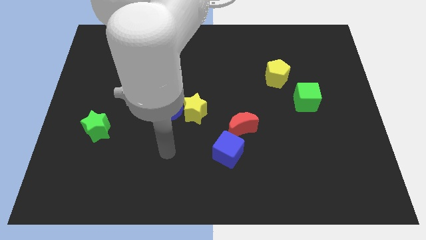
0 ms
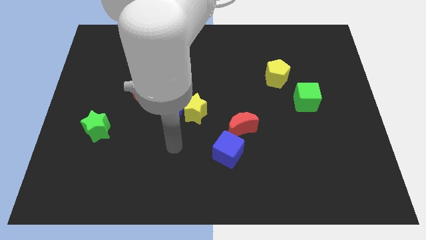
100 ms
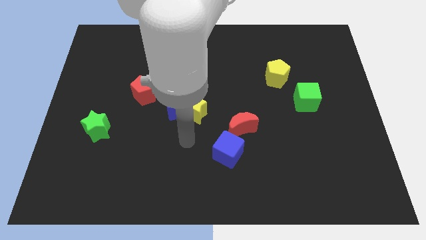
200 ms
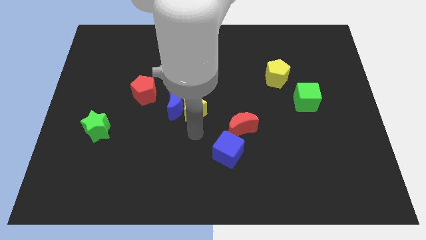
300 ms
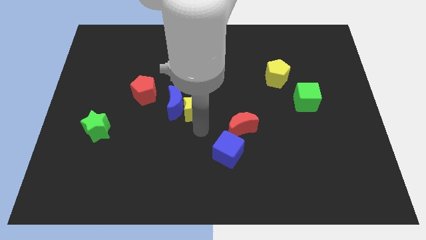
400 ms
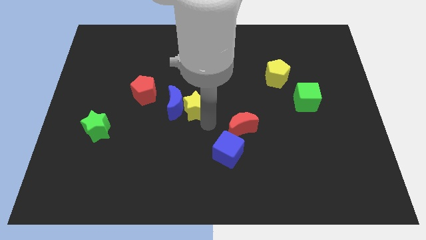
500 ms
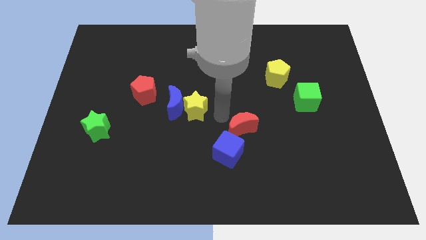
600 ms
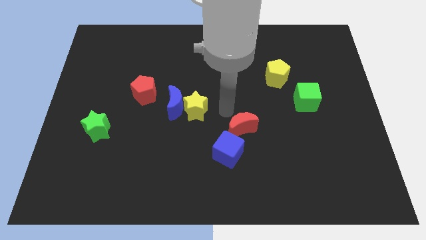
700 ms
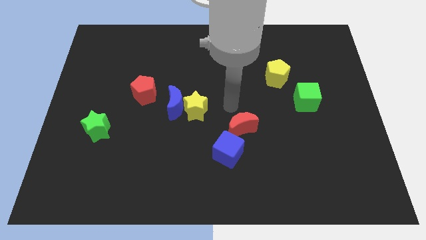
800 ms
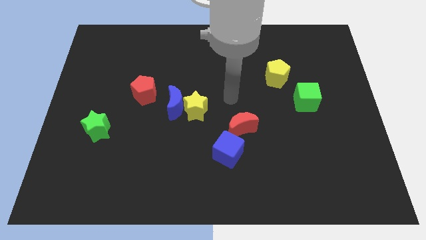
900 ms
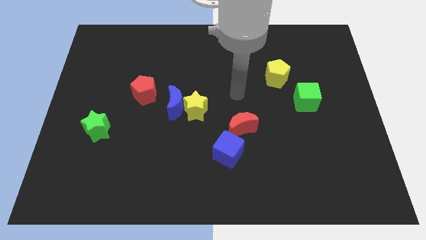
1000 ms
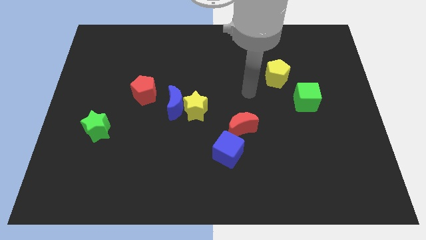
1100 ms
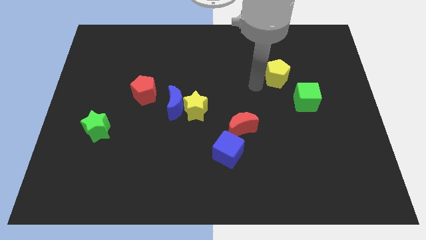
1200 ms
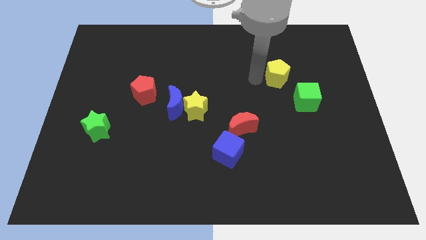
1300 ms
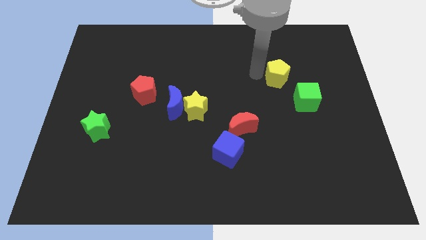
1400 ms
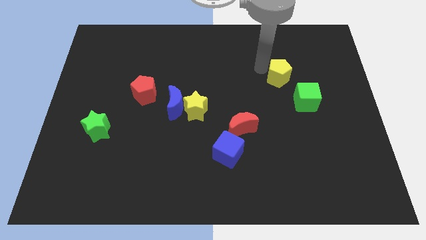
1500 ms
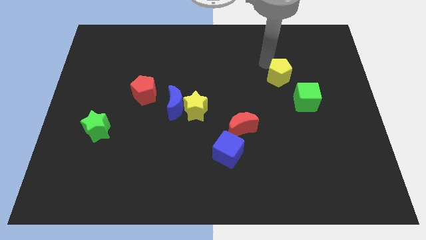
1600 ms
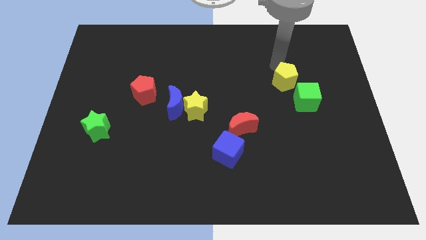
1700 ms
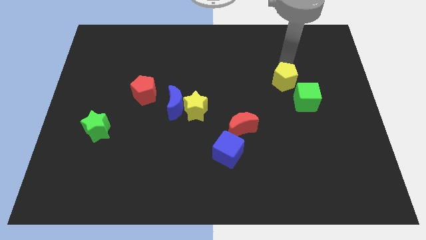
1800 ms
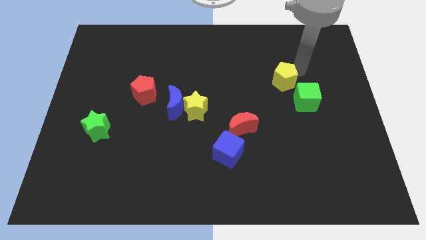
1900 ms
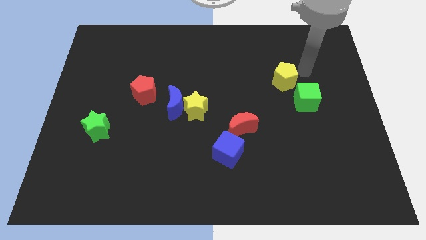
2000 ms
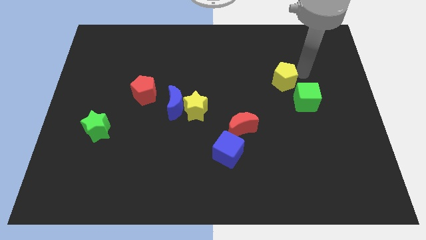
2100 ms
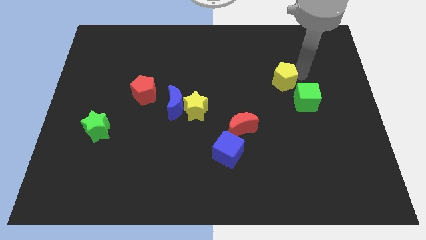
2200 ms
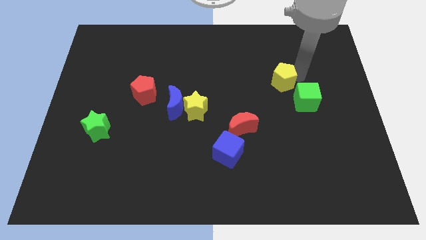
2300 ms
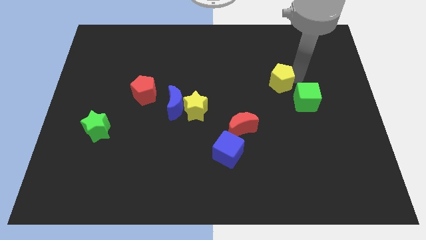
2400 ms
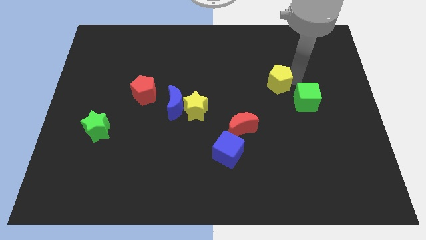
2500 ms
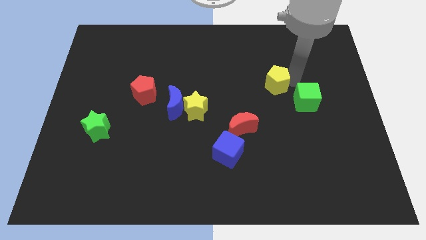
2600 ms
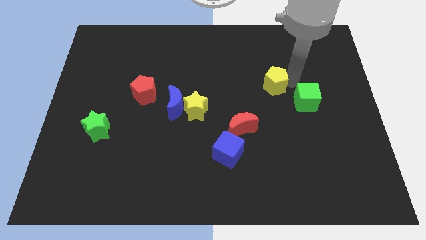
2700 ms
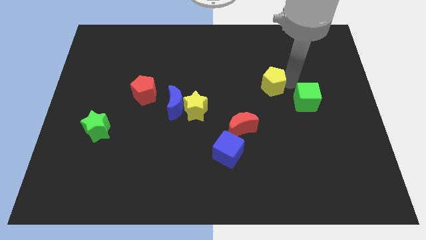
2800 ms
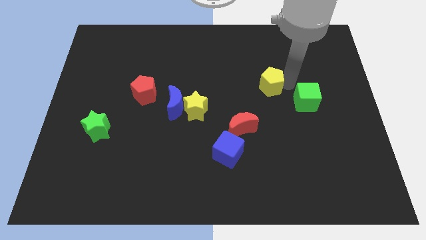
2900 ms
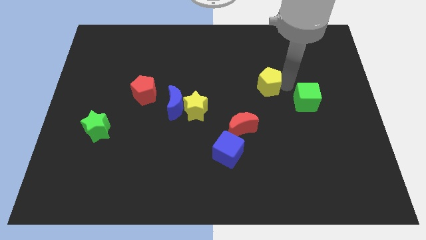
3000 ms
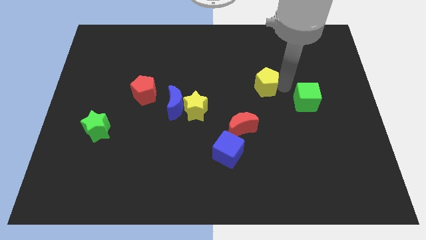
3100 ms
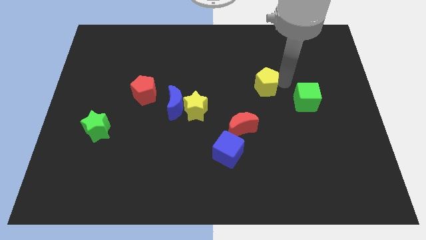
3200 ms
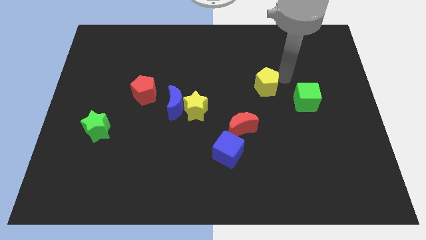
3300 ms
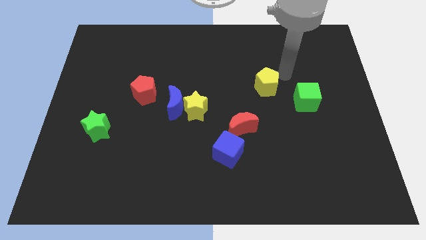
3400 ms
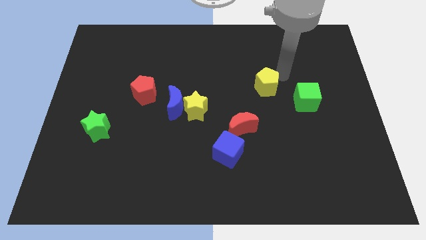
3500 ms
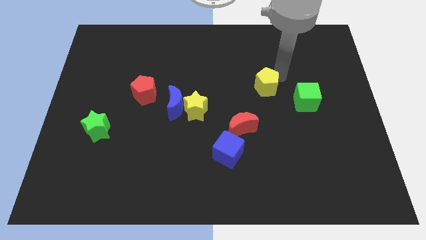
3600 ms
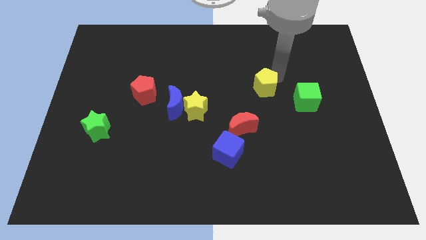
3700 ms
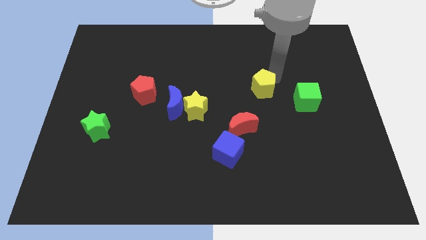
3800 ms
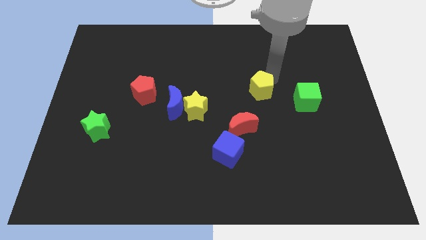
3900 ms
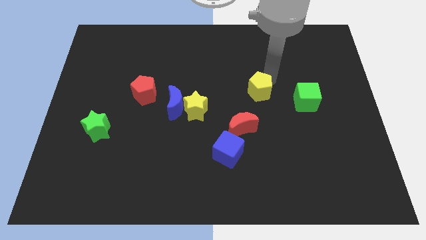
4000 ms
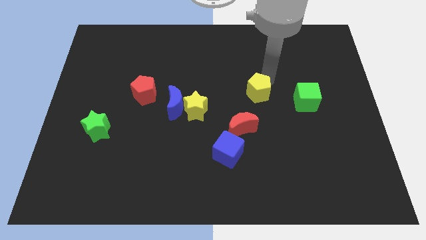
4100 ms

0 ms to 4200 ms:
move the yellow pentagon downwards and left a little bit

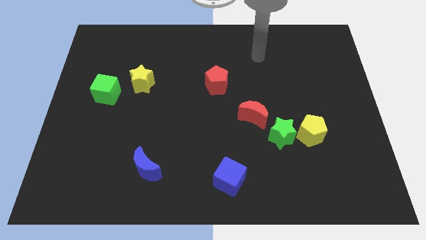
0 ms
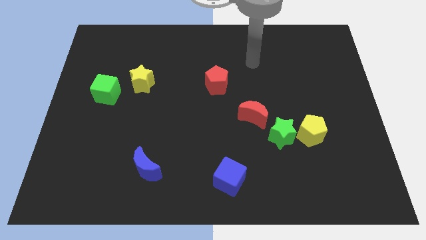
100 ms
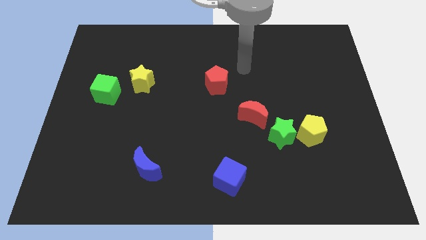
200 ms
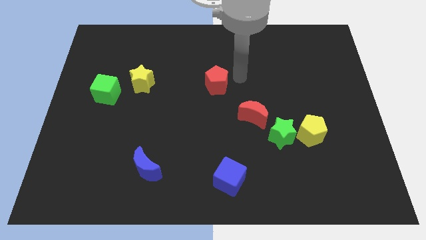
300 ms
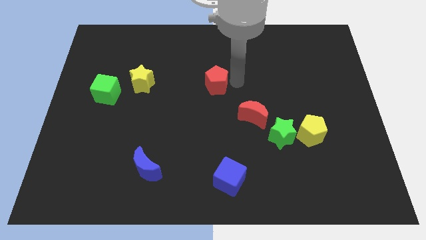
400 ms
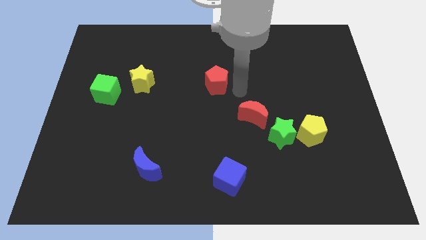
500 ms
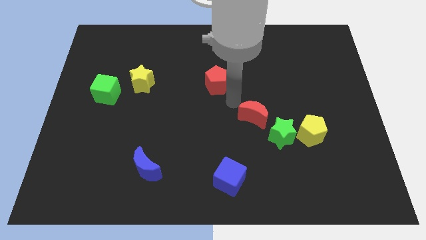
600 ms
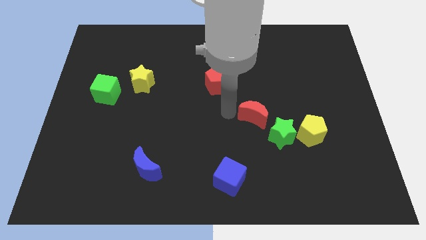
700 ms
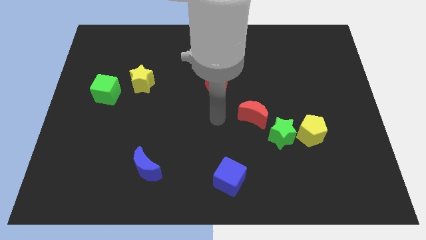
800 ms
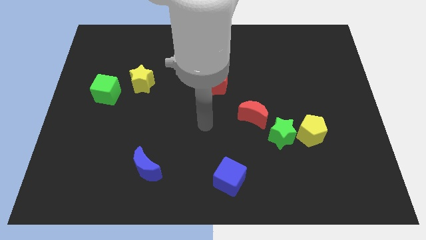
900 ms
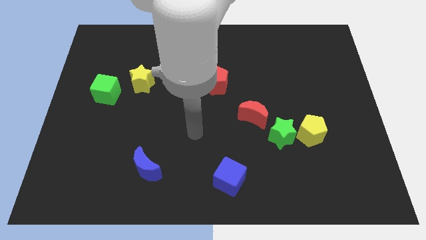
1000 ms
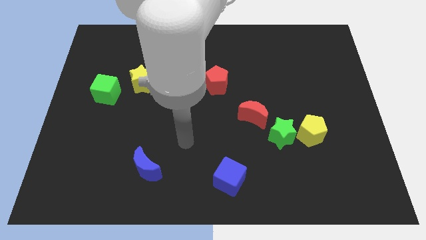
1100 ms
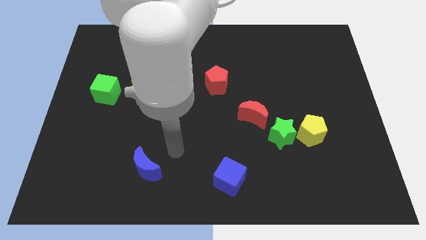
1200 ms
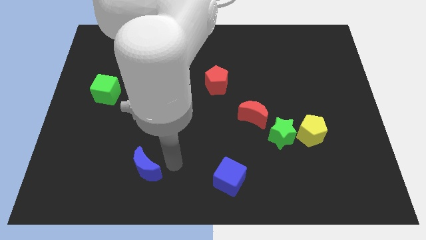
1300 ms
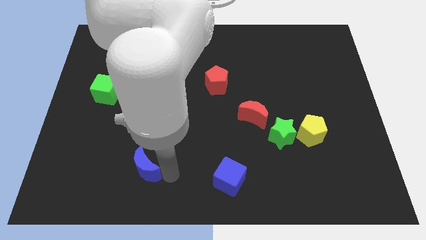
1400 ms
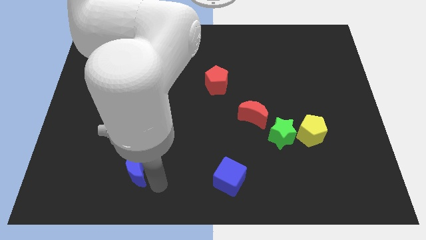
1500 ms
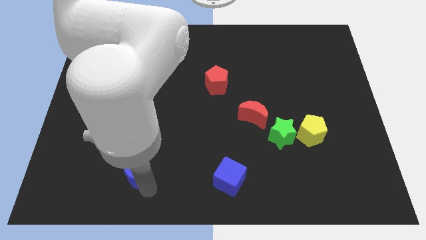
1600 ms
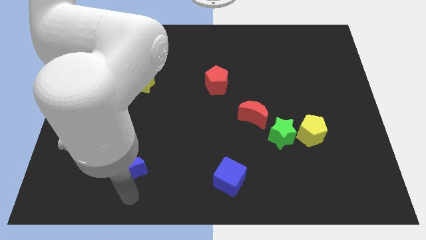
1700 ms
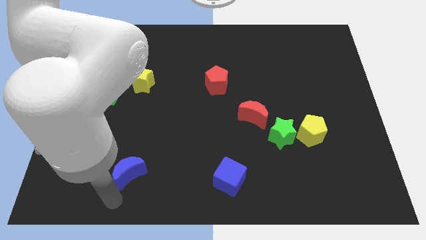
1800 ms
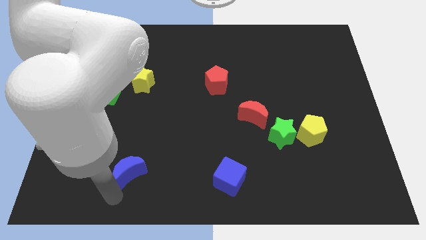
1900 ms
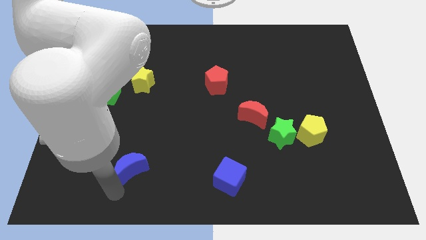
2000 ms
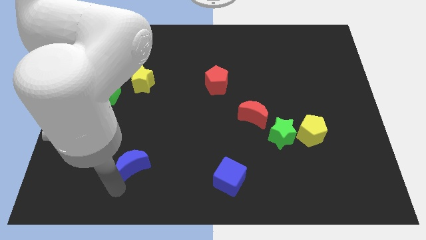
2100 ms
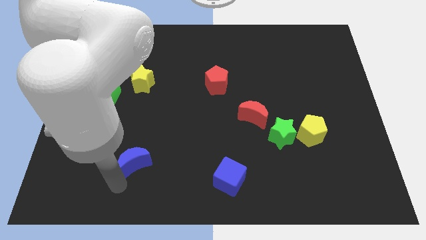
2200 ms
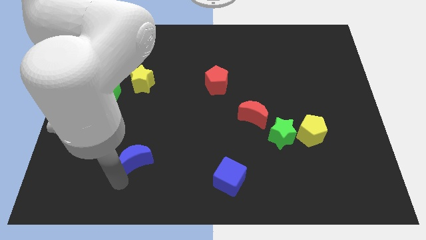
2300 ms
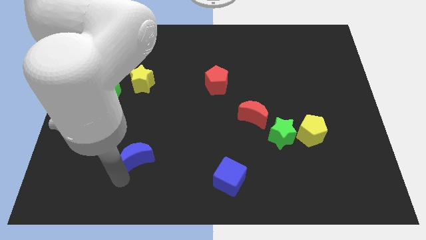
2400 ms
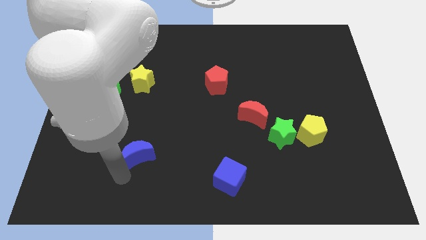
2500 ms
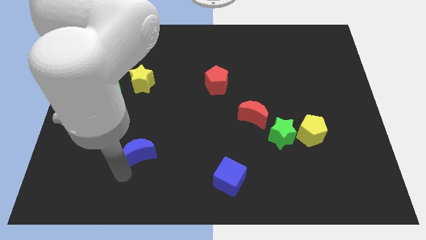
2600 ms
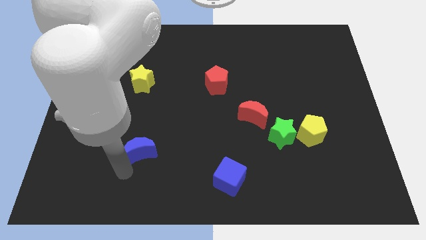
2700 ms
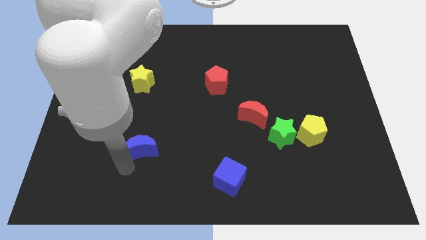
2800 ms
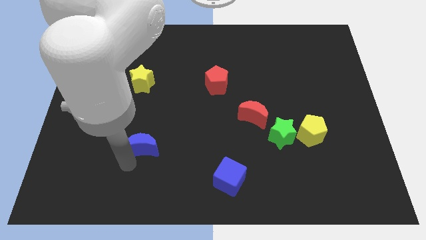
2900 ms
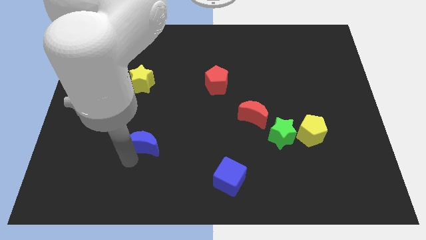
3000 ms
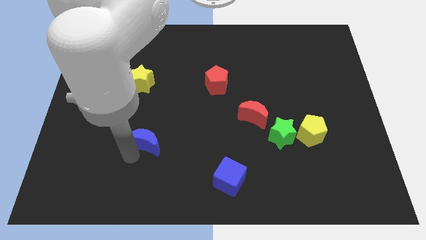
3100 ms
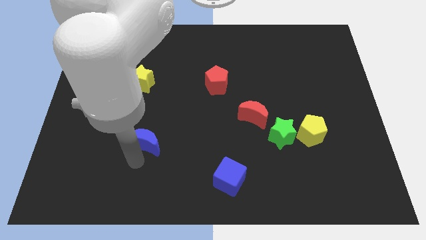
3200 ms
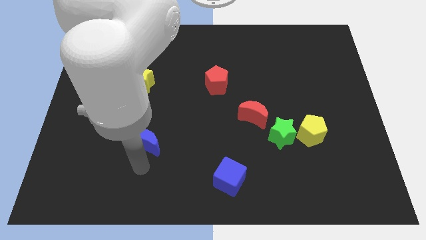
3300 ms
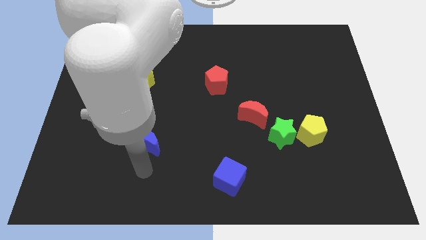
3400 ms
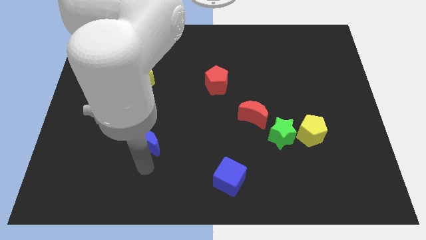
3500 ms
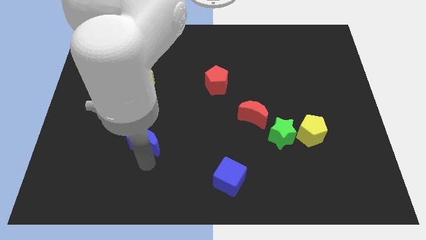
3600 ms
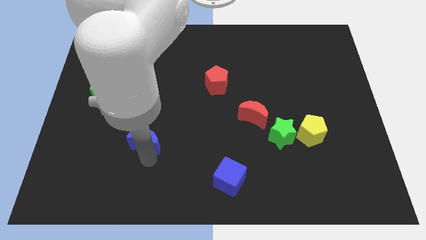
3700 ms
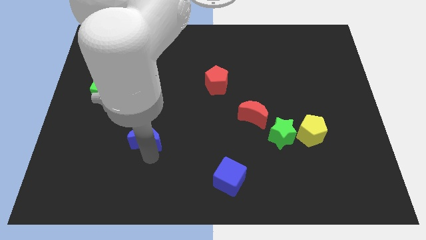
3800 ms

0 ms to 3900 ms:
slightly move the blue moon up
